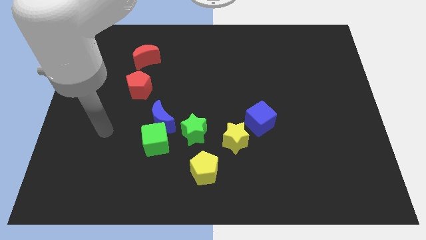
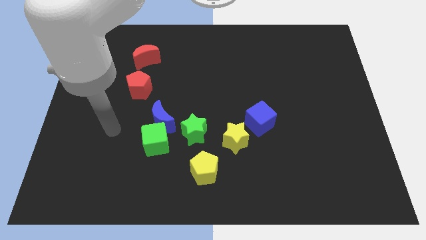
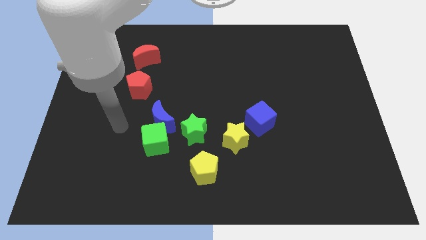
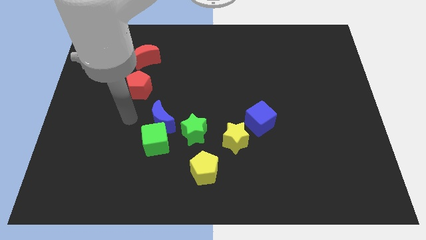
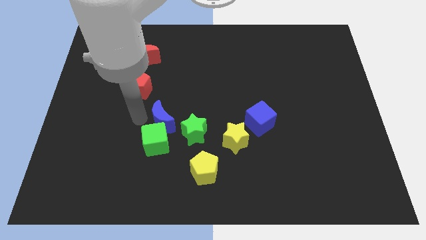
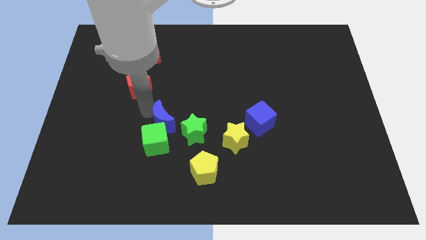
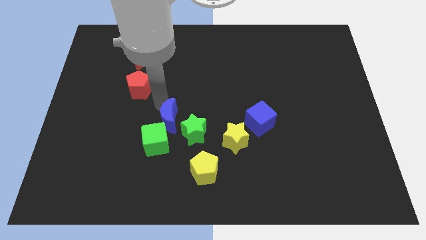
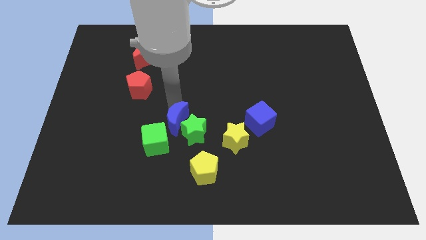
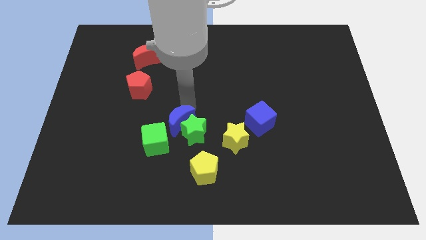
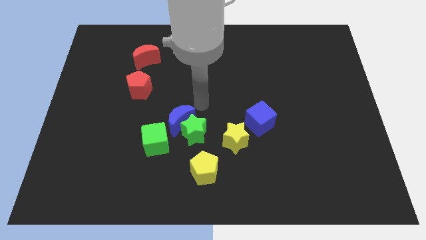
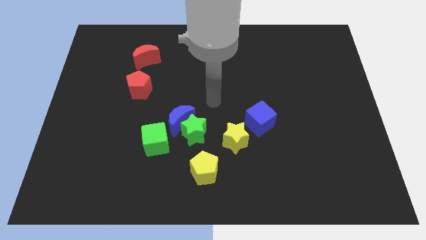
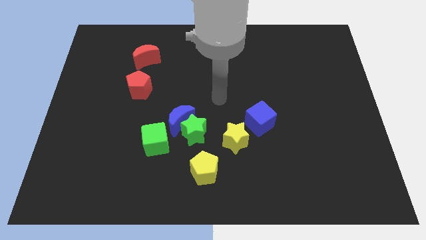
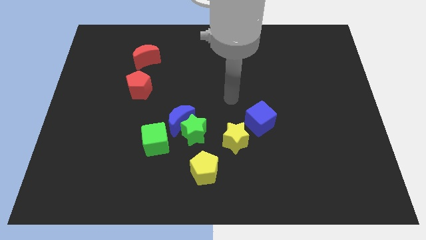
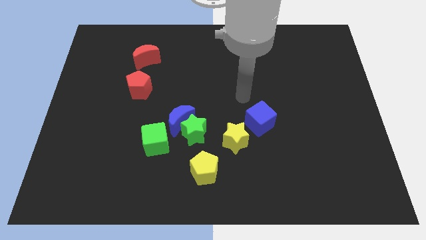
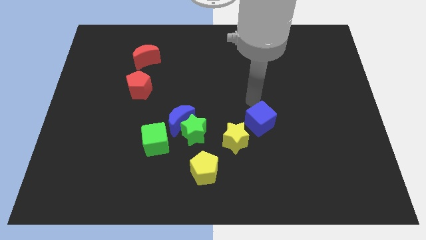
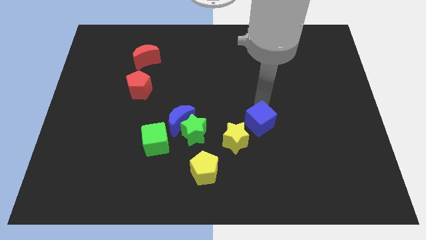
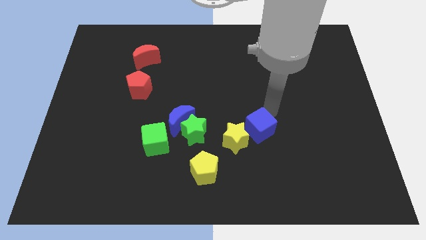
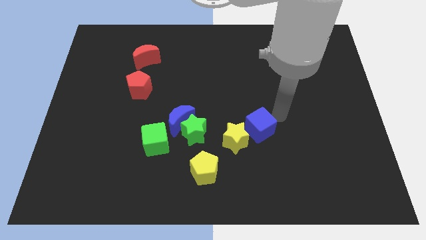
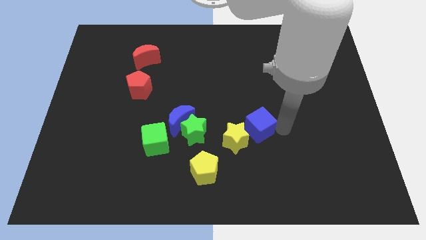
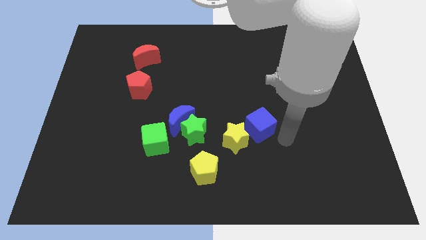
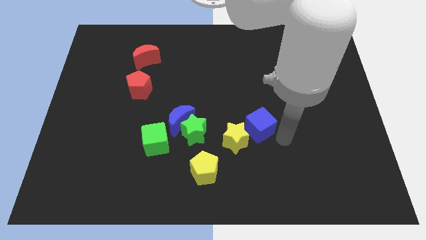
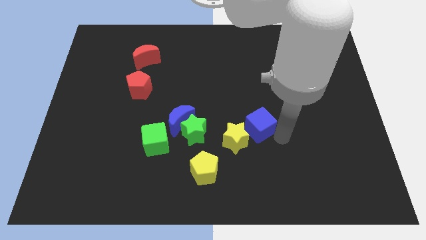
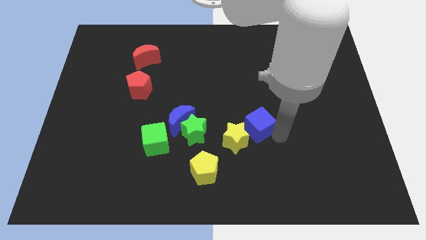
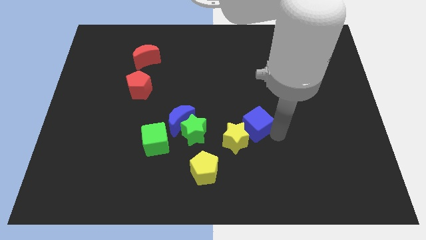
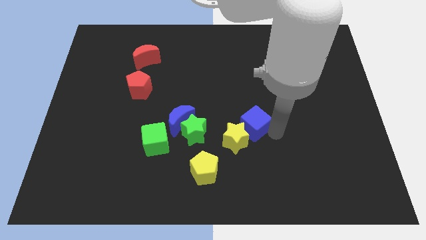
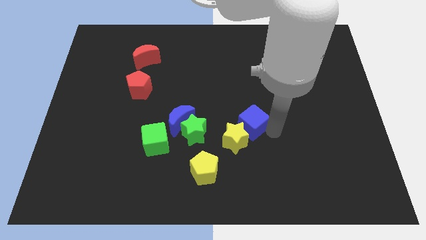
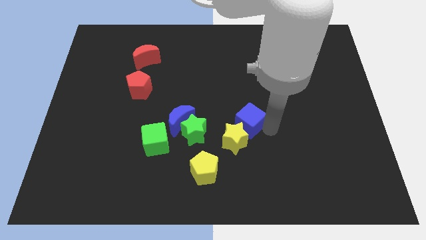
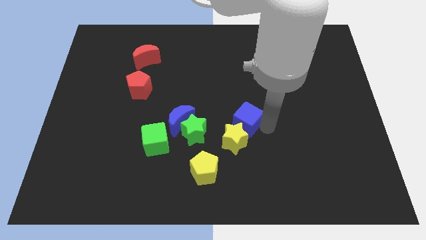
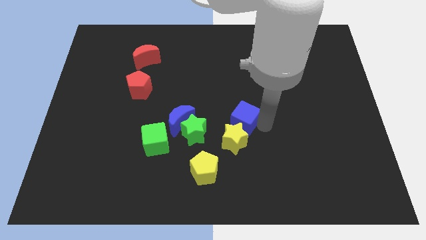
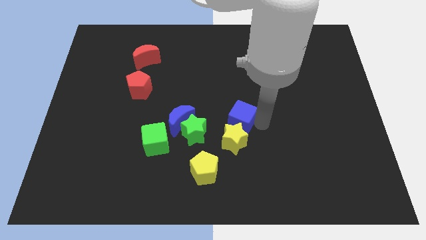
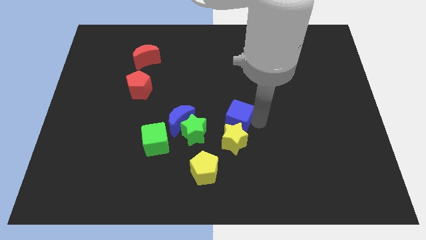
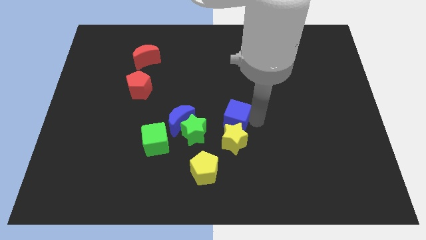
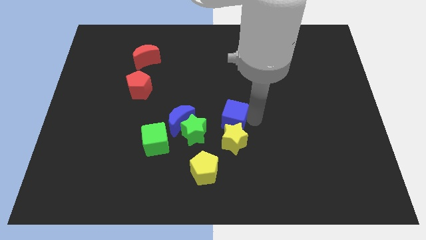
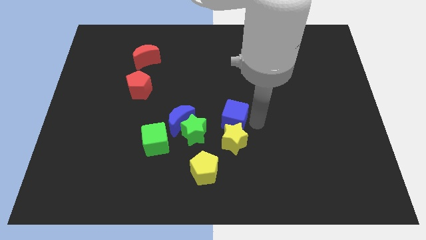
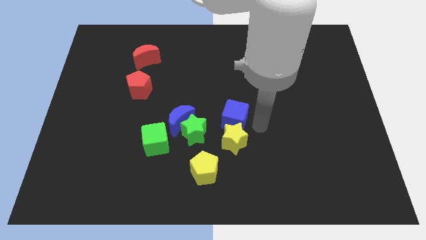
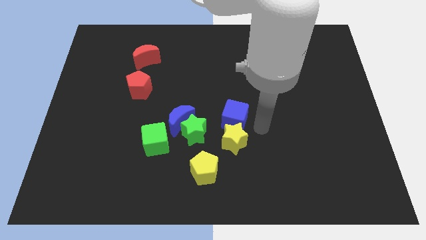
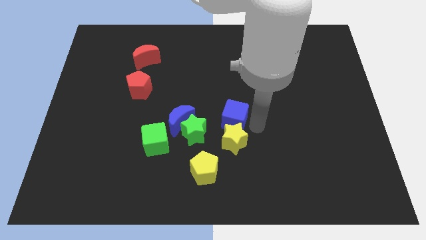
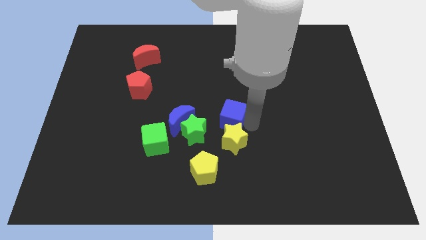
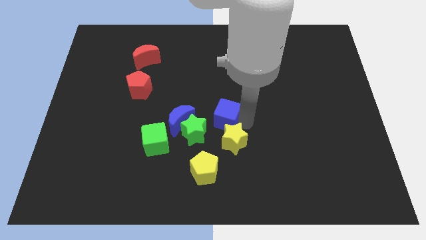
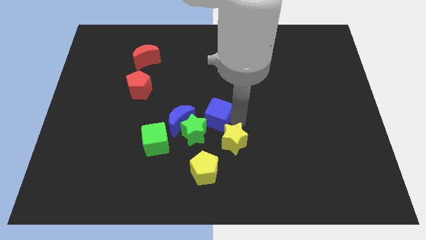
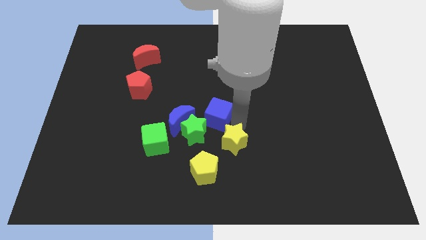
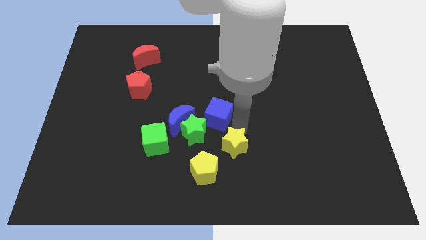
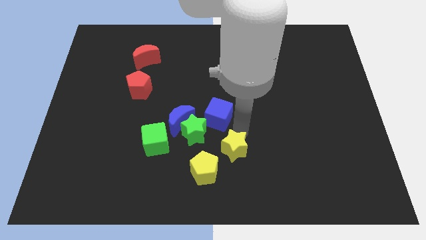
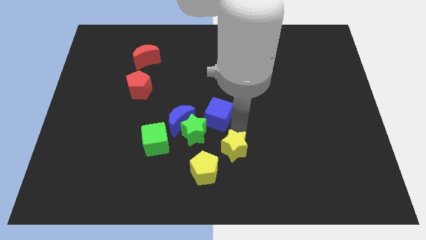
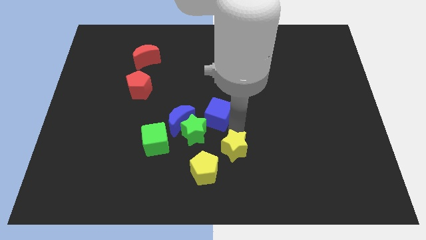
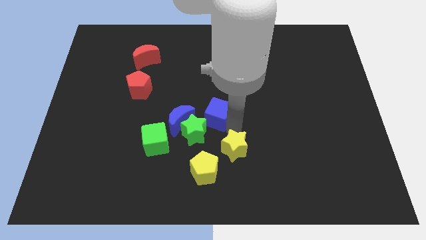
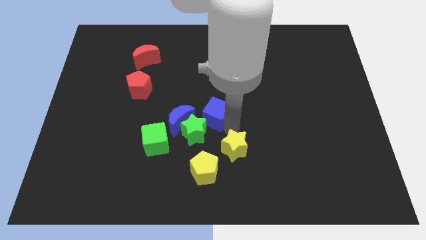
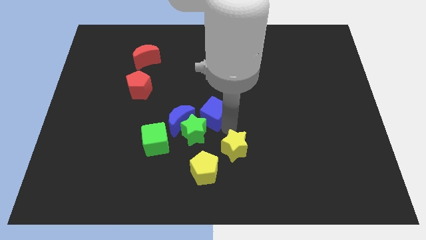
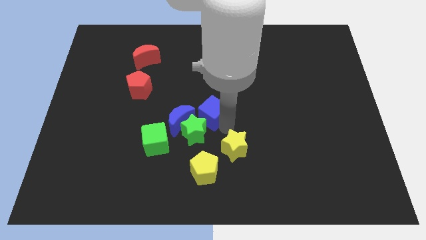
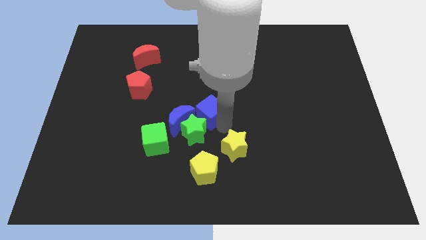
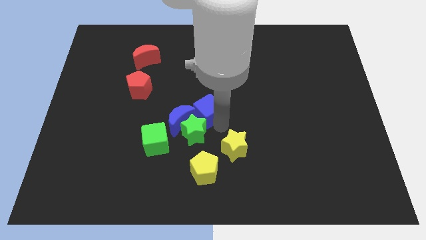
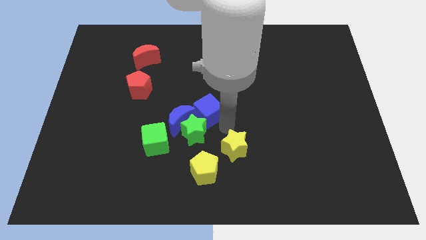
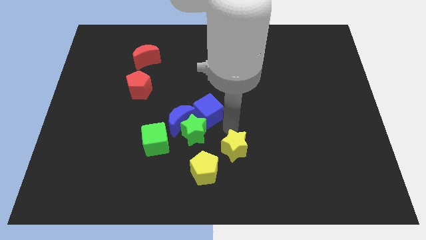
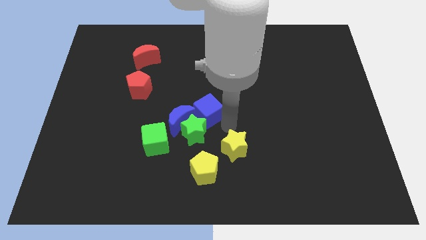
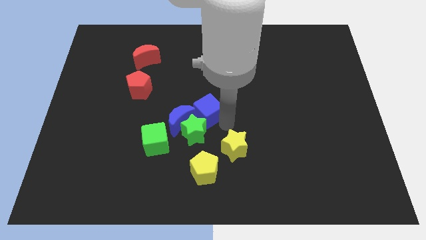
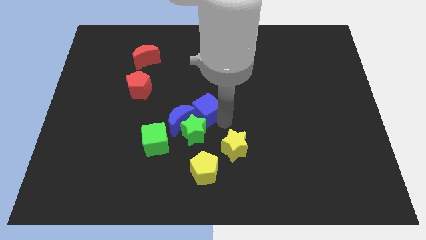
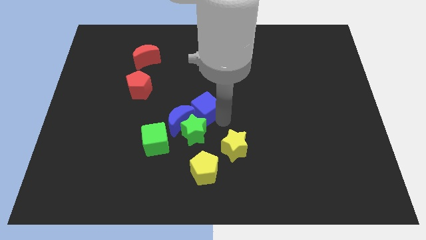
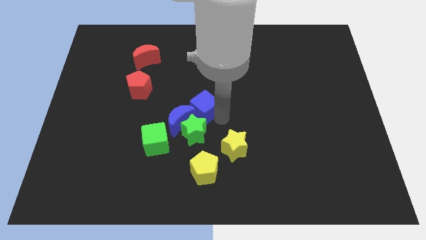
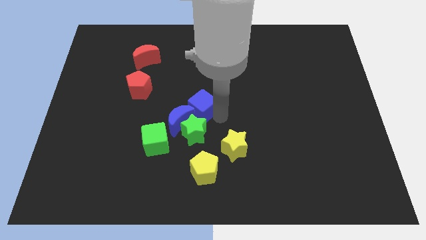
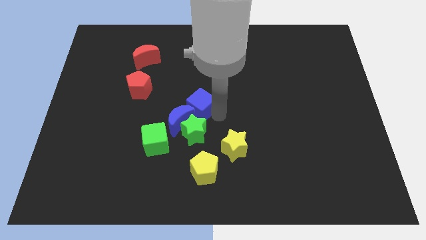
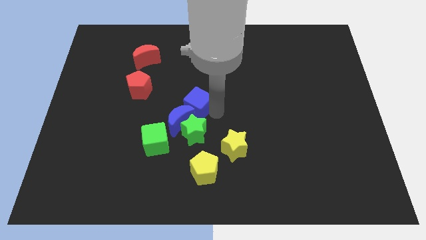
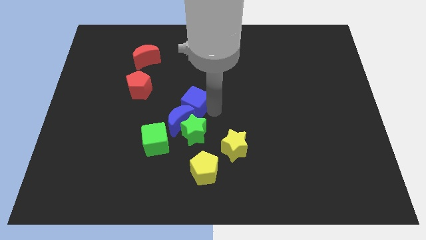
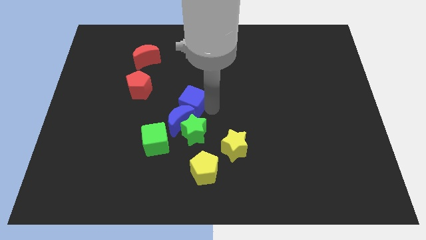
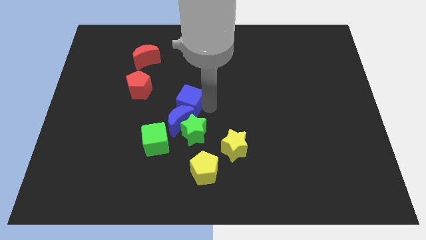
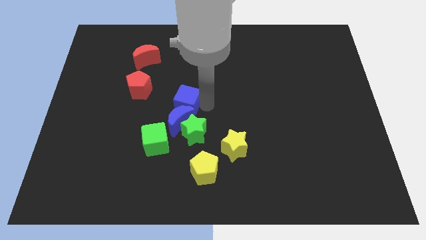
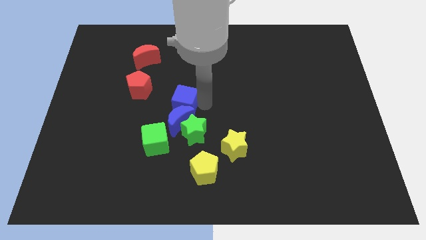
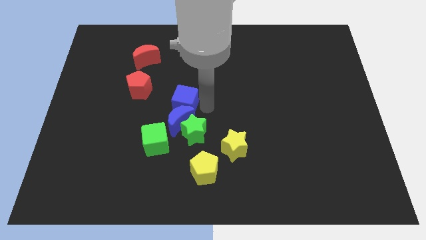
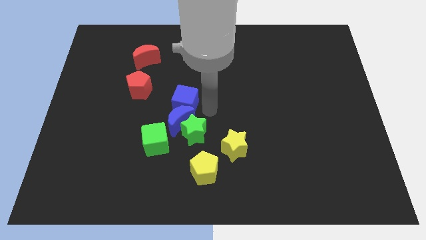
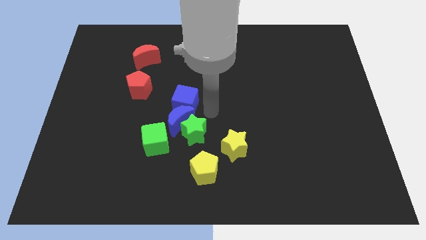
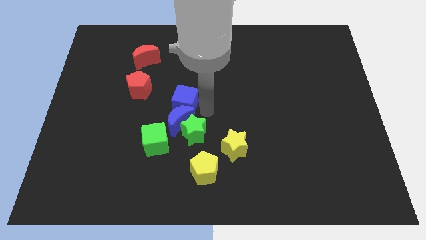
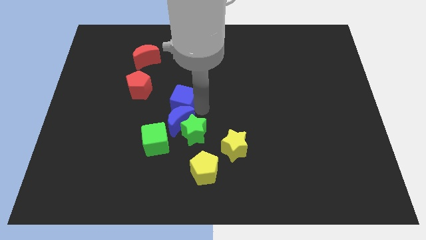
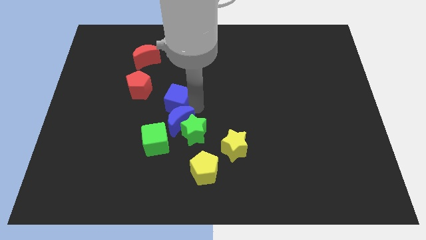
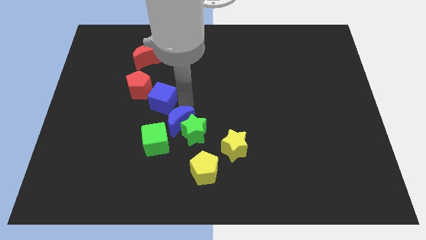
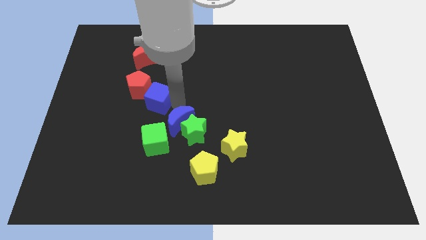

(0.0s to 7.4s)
push the blue cube next to the red pentagon
